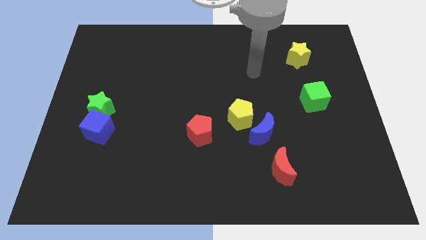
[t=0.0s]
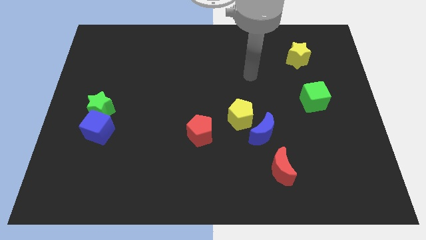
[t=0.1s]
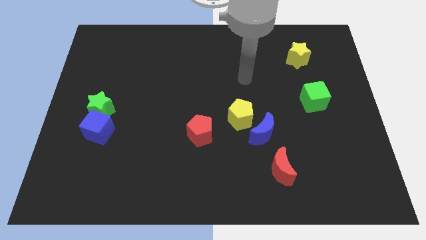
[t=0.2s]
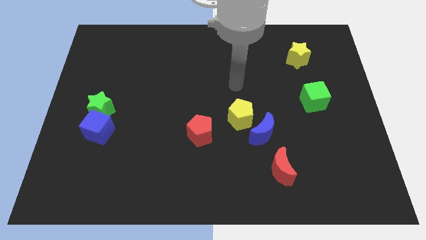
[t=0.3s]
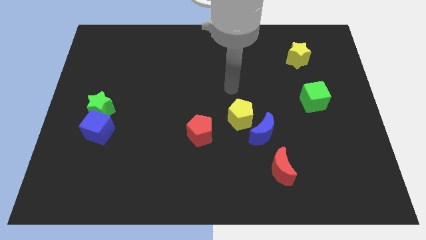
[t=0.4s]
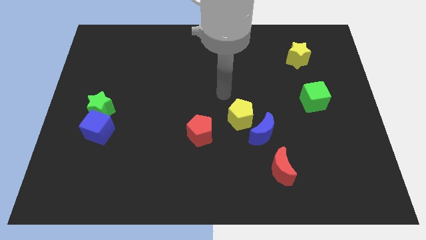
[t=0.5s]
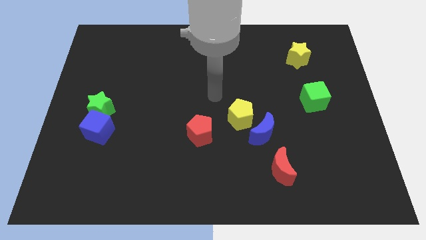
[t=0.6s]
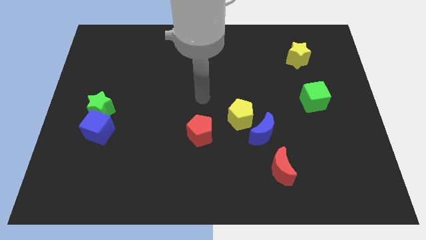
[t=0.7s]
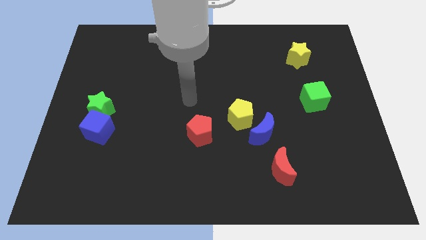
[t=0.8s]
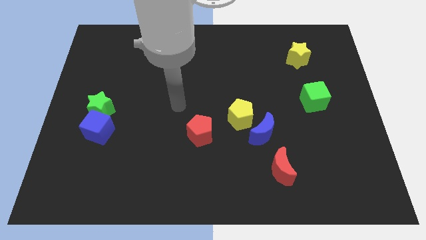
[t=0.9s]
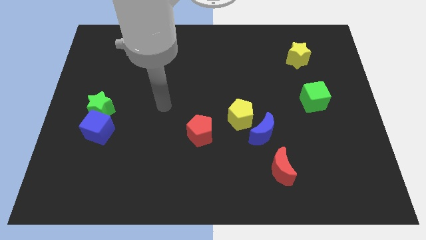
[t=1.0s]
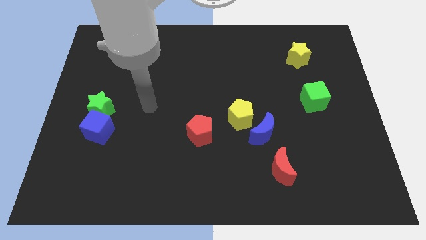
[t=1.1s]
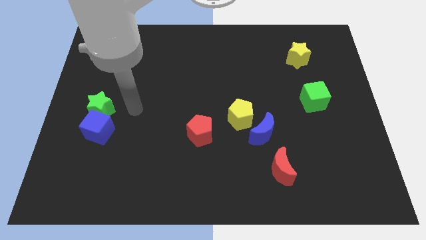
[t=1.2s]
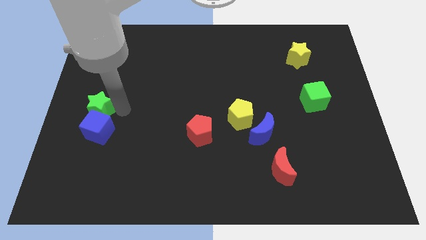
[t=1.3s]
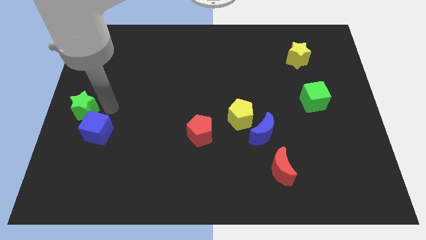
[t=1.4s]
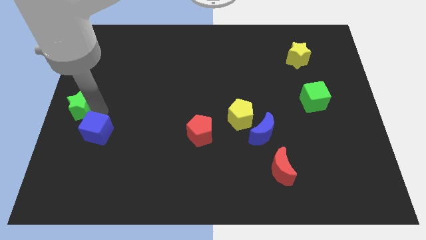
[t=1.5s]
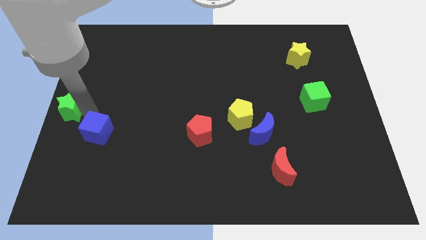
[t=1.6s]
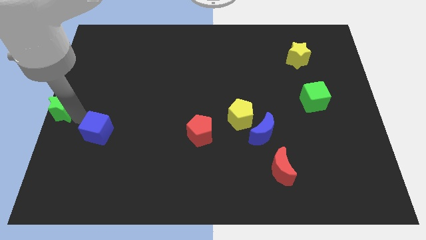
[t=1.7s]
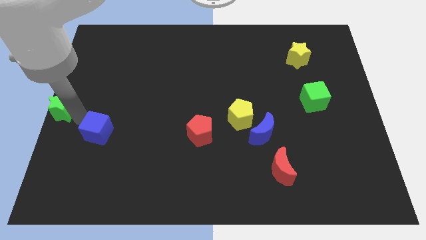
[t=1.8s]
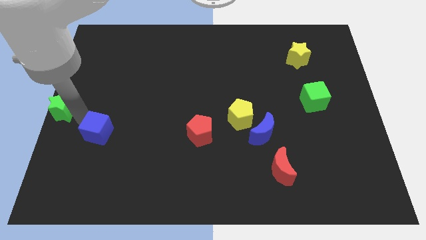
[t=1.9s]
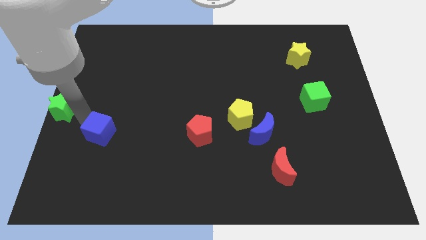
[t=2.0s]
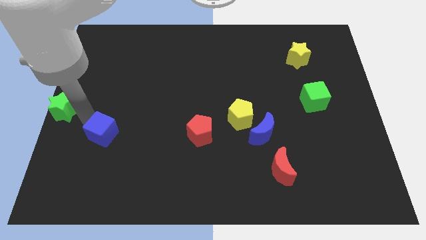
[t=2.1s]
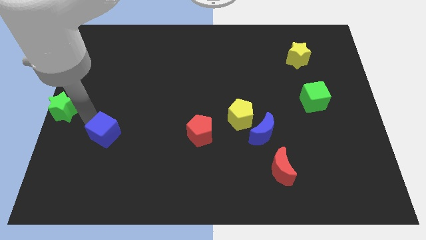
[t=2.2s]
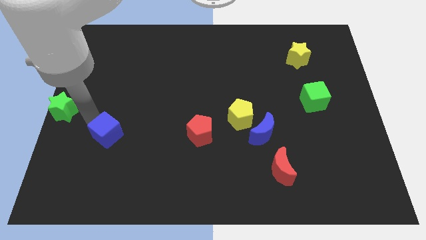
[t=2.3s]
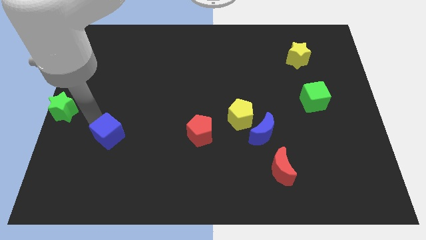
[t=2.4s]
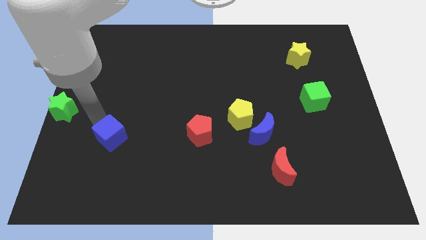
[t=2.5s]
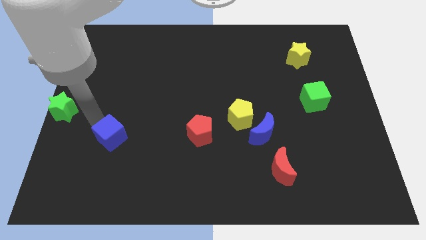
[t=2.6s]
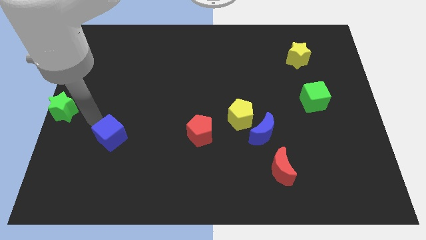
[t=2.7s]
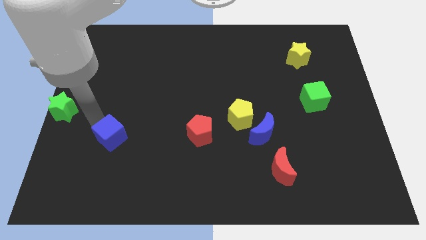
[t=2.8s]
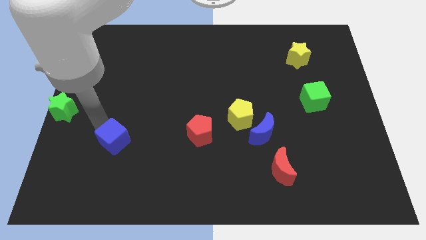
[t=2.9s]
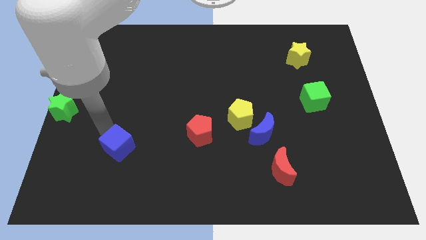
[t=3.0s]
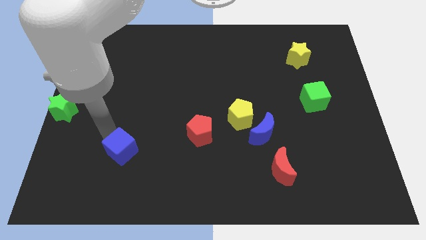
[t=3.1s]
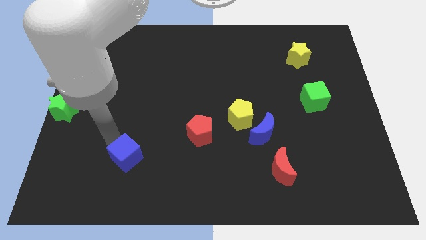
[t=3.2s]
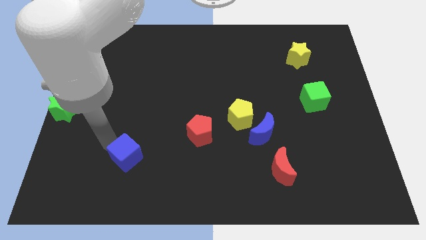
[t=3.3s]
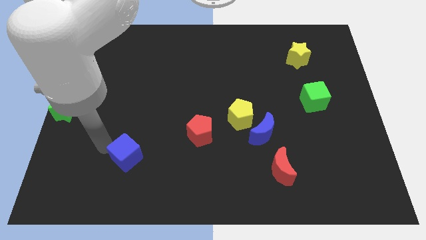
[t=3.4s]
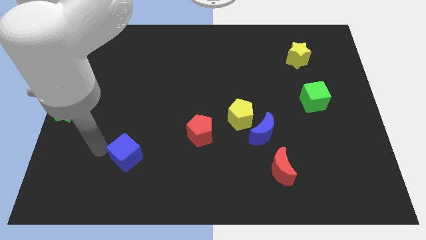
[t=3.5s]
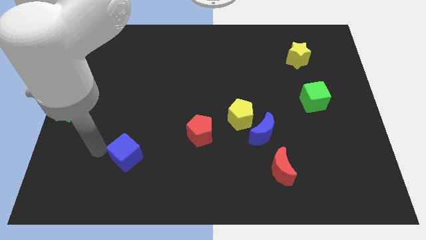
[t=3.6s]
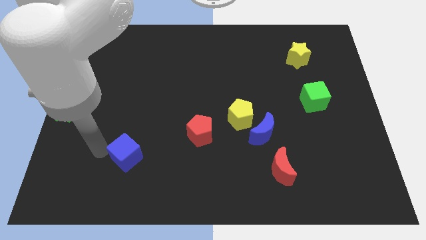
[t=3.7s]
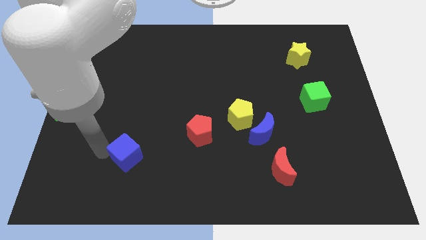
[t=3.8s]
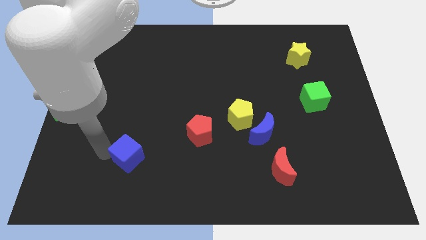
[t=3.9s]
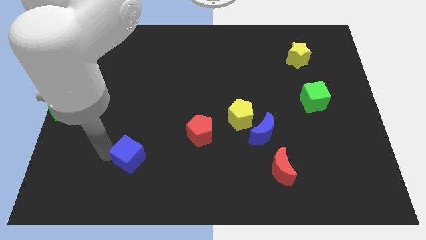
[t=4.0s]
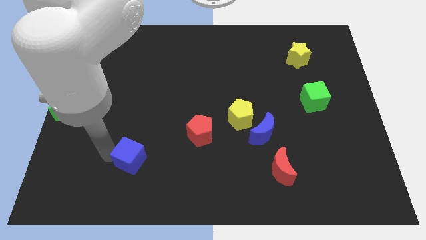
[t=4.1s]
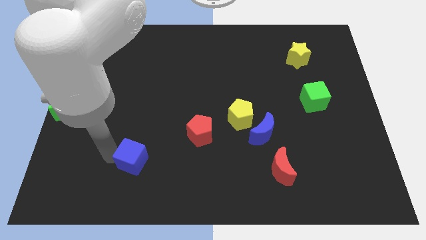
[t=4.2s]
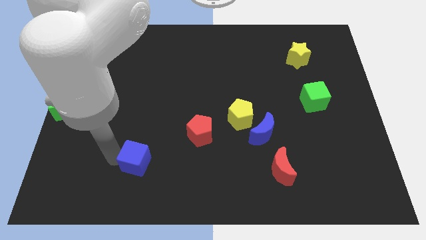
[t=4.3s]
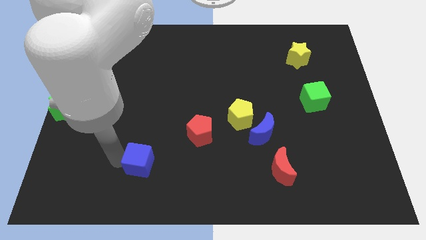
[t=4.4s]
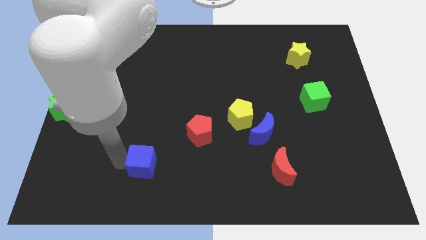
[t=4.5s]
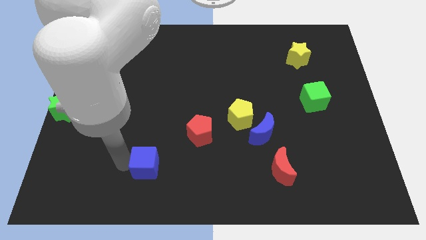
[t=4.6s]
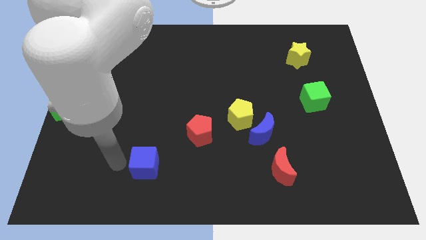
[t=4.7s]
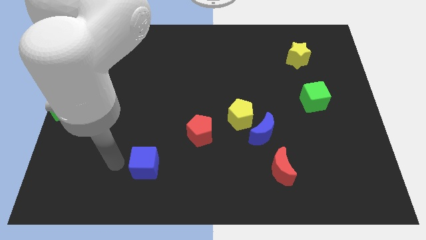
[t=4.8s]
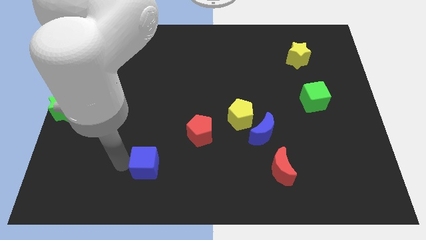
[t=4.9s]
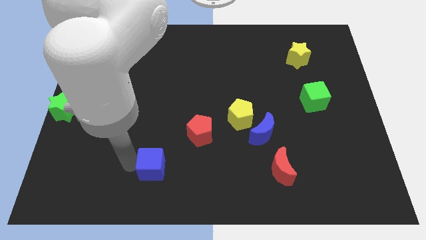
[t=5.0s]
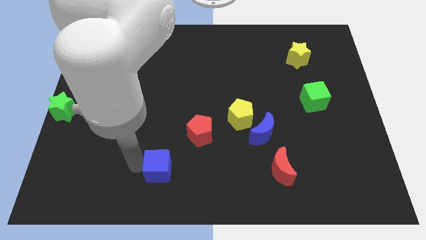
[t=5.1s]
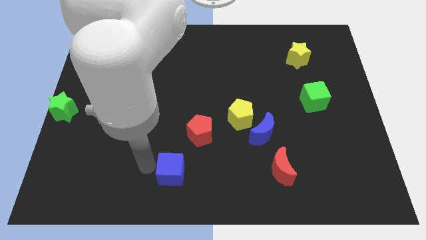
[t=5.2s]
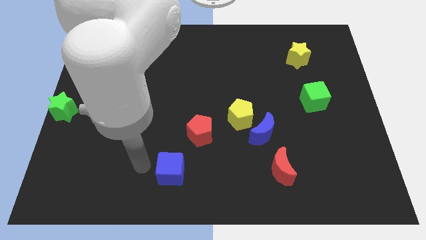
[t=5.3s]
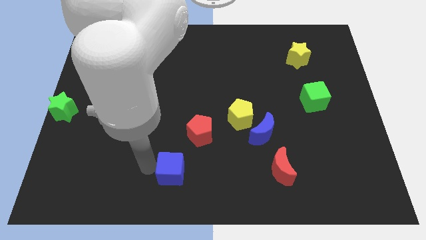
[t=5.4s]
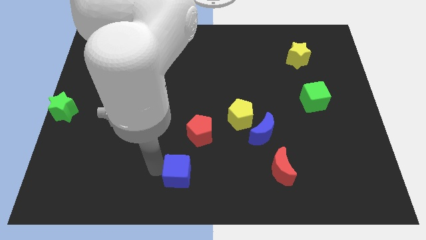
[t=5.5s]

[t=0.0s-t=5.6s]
put the blue cube to the bottom of the red pentagon
